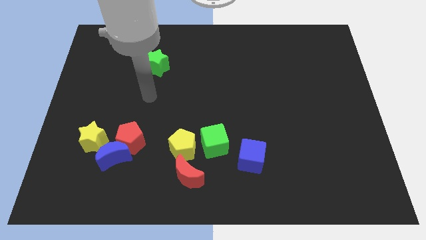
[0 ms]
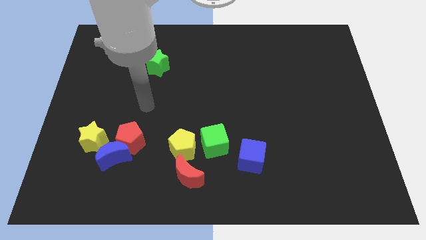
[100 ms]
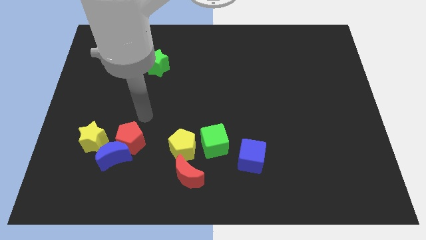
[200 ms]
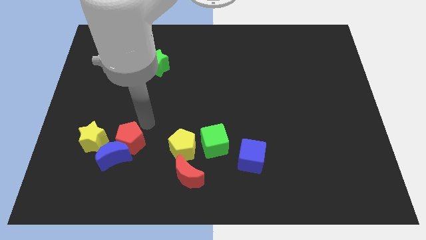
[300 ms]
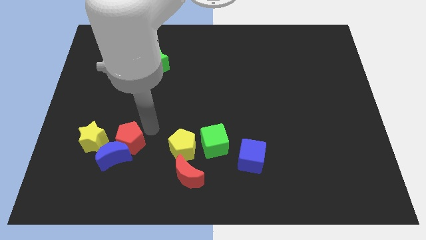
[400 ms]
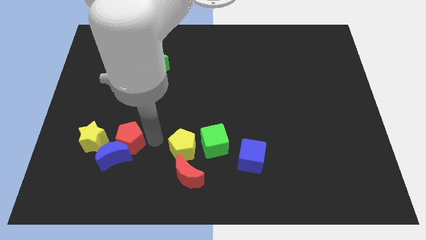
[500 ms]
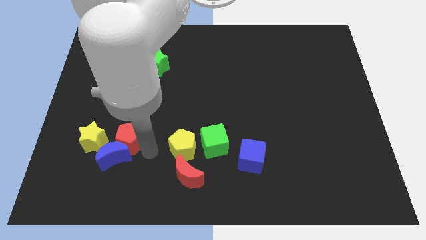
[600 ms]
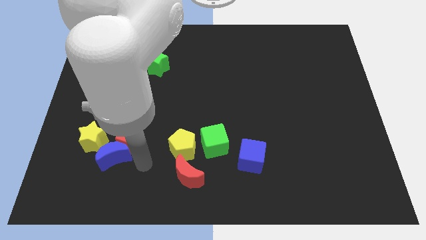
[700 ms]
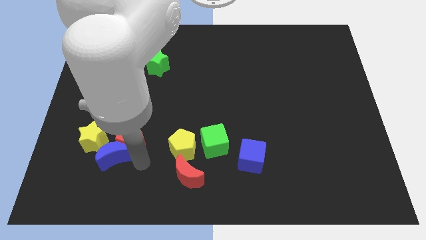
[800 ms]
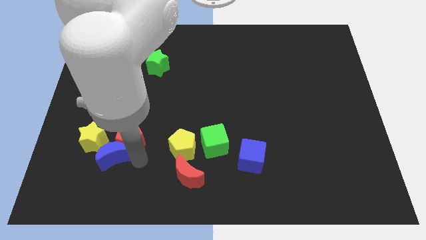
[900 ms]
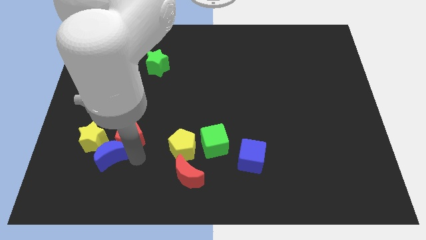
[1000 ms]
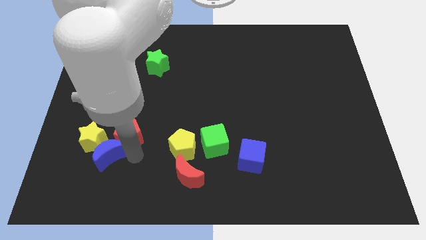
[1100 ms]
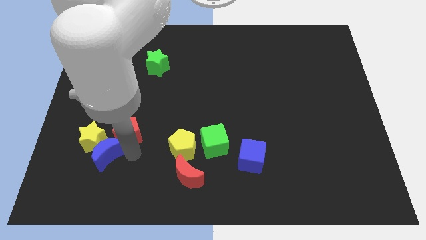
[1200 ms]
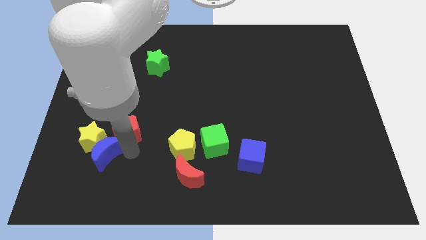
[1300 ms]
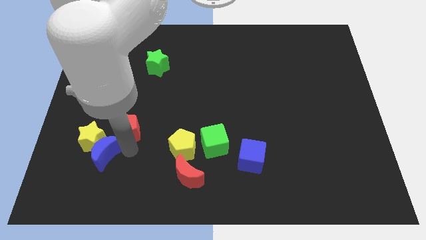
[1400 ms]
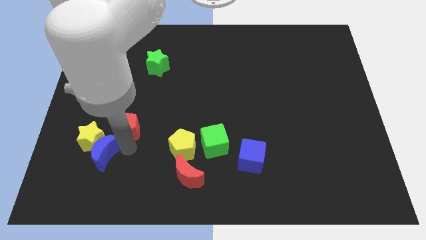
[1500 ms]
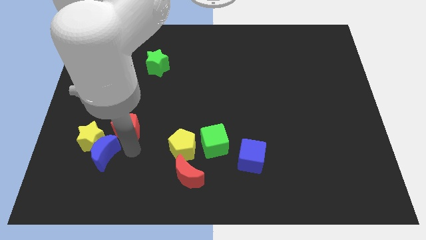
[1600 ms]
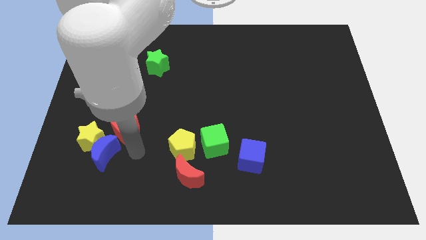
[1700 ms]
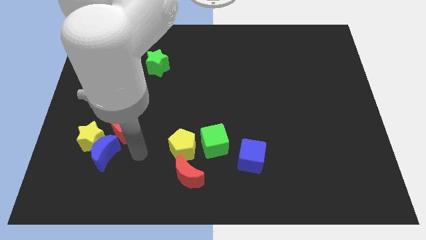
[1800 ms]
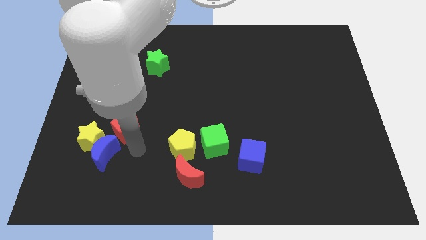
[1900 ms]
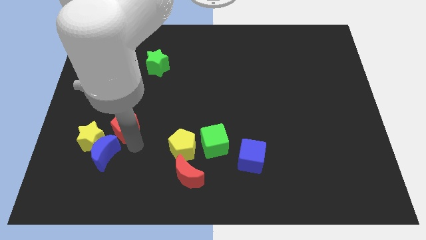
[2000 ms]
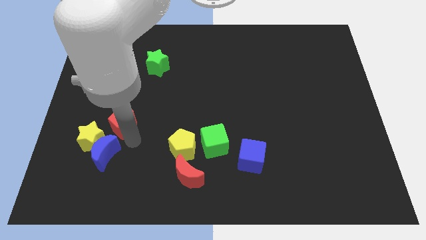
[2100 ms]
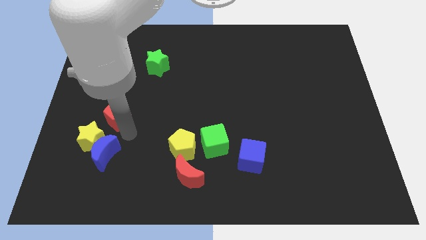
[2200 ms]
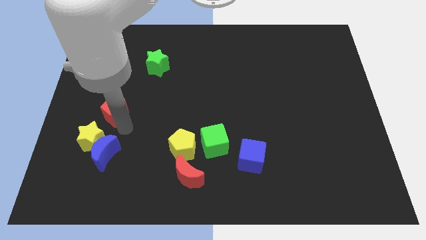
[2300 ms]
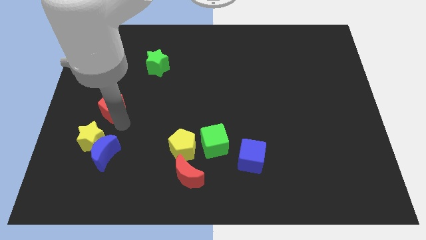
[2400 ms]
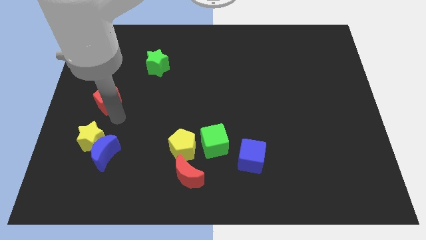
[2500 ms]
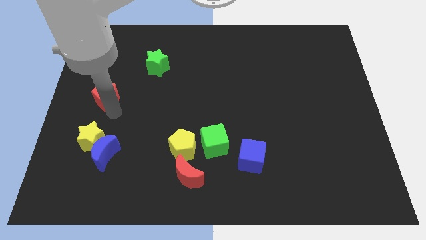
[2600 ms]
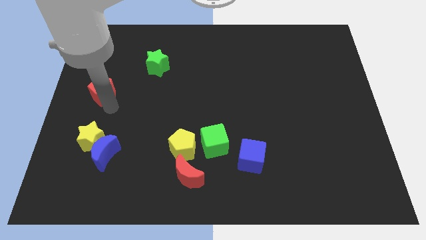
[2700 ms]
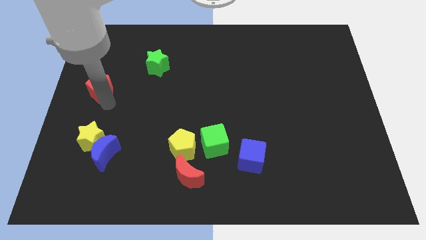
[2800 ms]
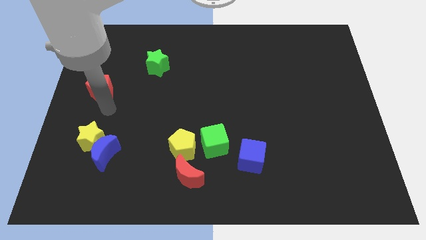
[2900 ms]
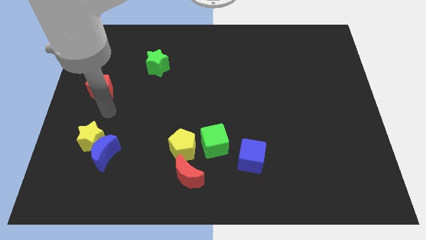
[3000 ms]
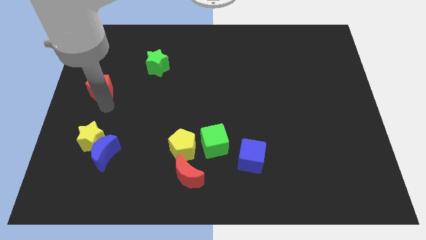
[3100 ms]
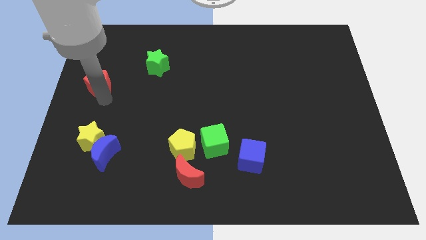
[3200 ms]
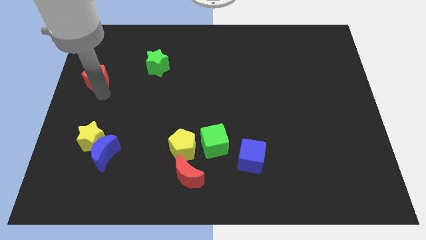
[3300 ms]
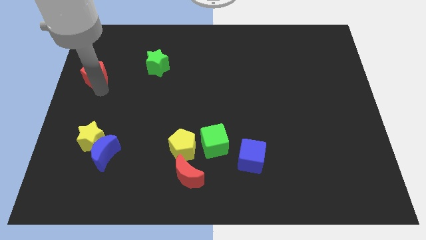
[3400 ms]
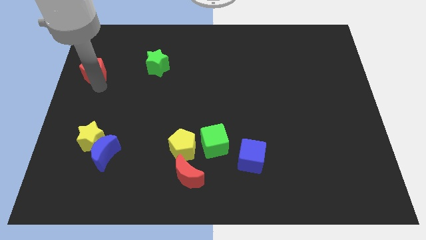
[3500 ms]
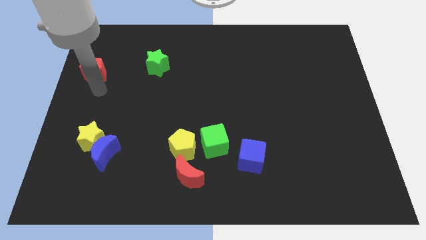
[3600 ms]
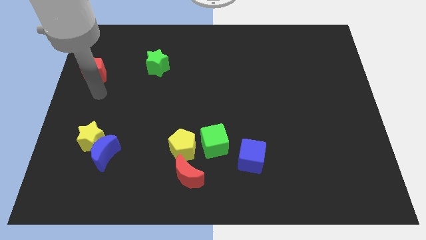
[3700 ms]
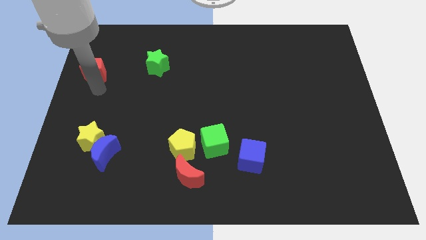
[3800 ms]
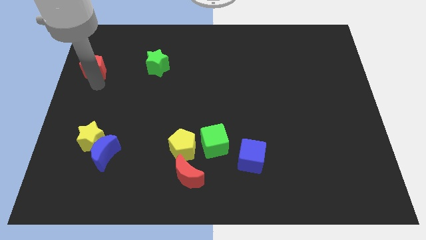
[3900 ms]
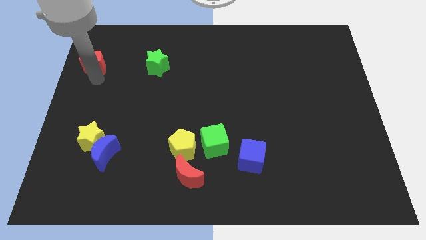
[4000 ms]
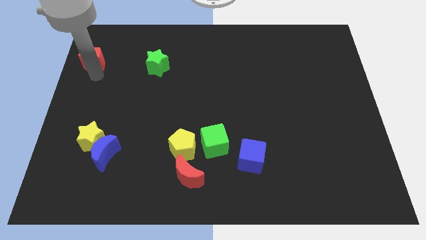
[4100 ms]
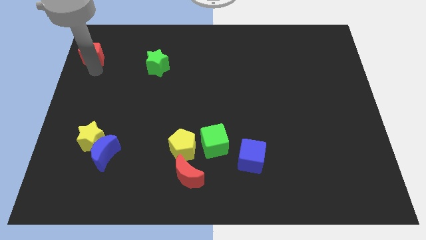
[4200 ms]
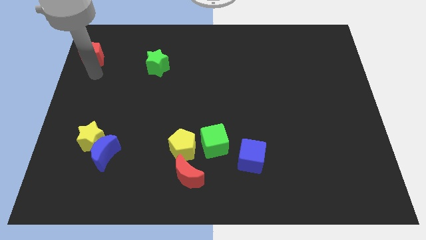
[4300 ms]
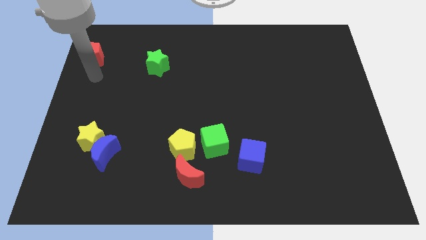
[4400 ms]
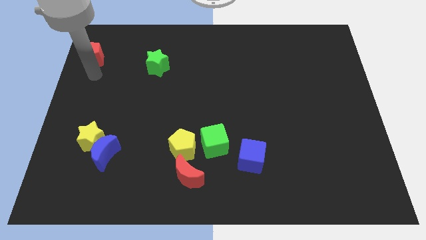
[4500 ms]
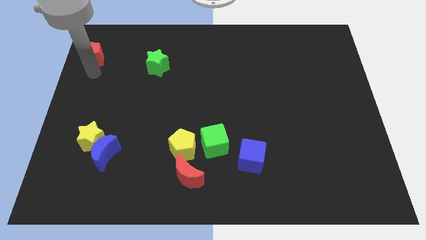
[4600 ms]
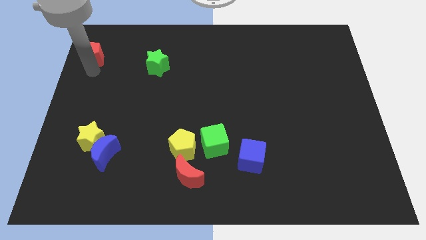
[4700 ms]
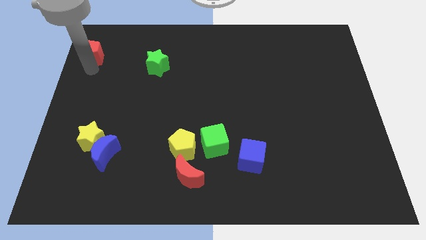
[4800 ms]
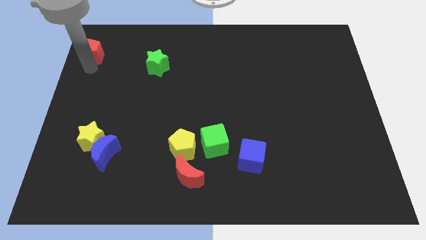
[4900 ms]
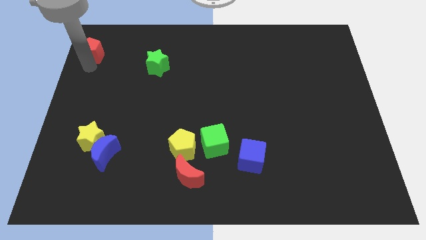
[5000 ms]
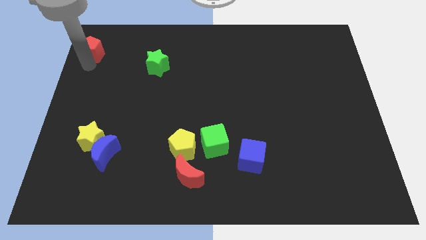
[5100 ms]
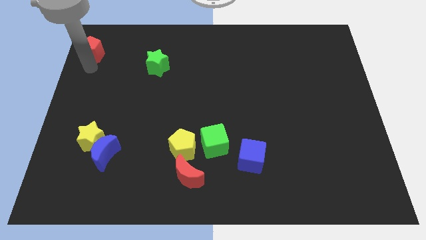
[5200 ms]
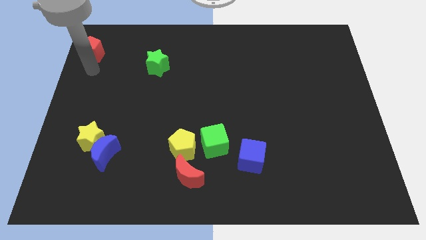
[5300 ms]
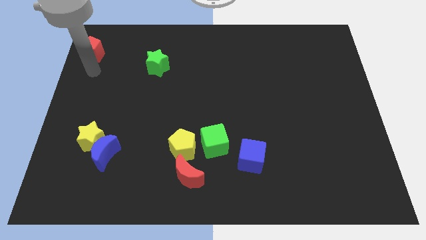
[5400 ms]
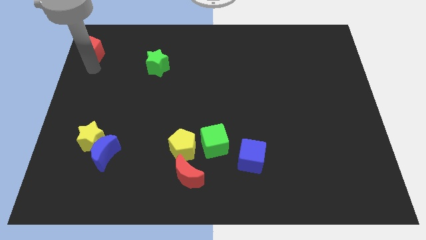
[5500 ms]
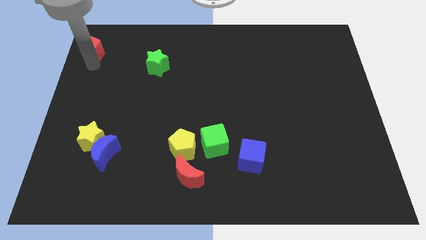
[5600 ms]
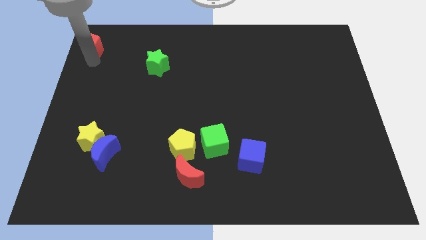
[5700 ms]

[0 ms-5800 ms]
move the red pentagon to the top left

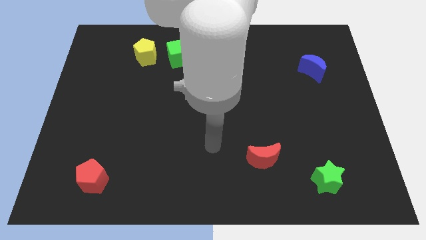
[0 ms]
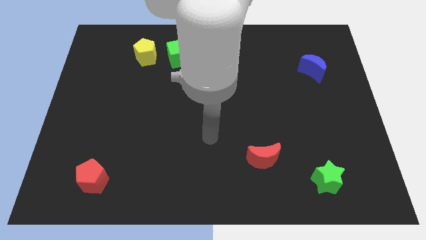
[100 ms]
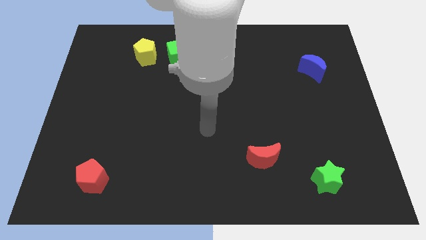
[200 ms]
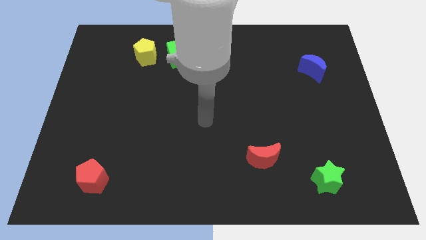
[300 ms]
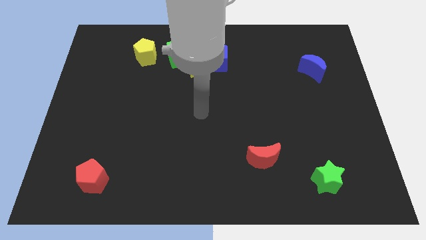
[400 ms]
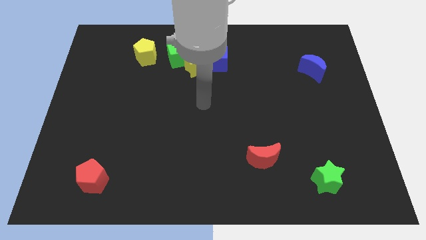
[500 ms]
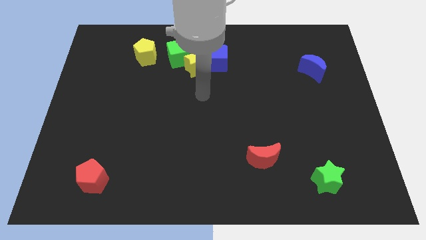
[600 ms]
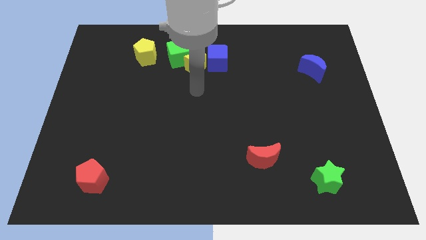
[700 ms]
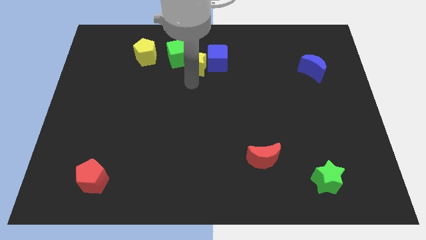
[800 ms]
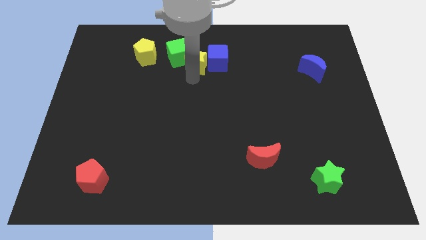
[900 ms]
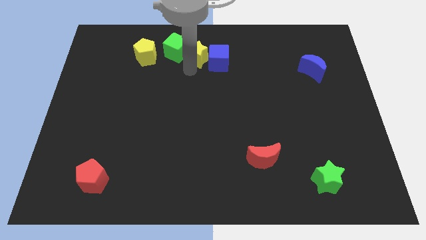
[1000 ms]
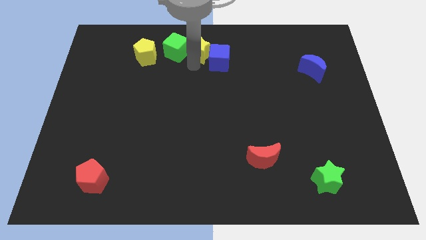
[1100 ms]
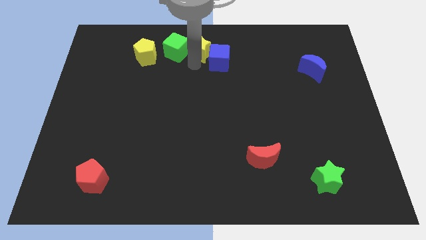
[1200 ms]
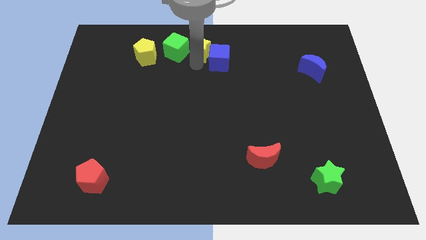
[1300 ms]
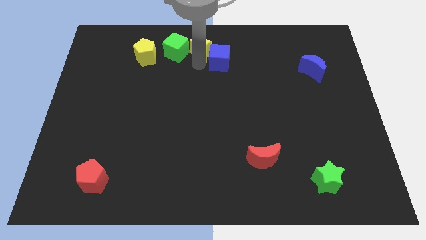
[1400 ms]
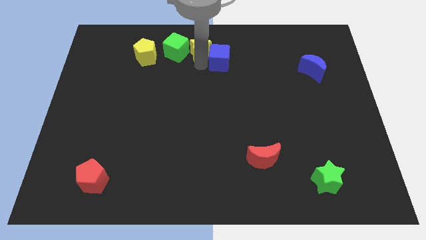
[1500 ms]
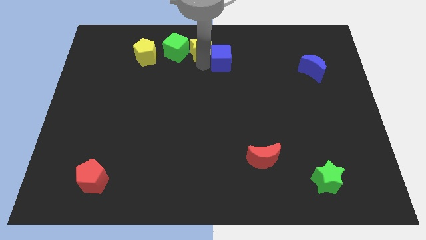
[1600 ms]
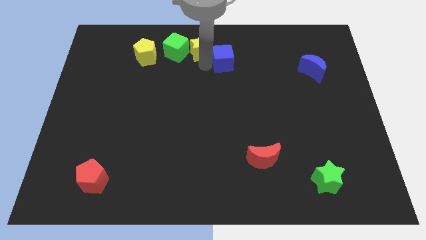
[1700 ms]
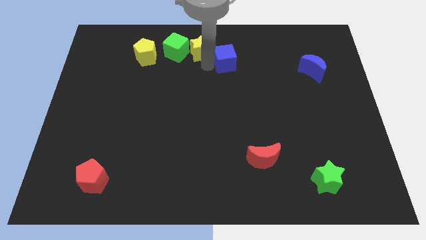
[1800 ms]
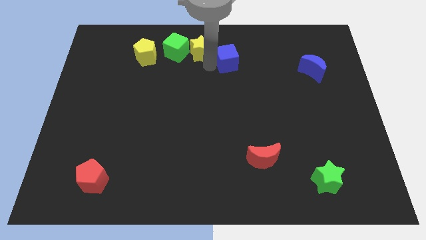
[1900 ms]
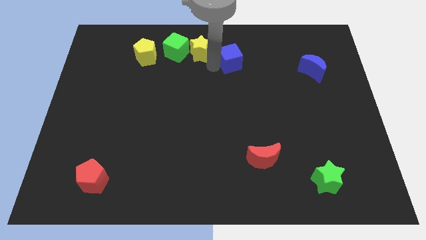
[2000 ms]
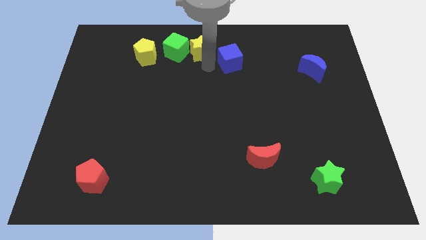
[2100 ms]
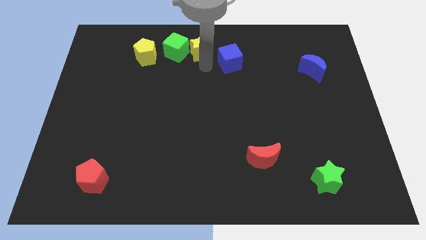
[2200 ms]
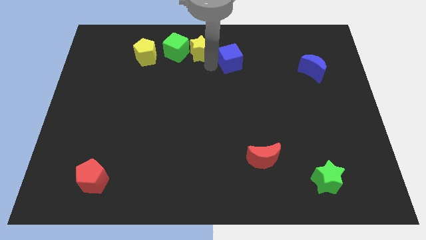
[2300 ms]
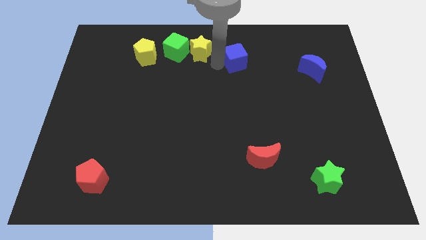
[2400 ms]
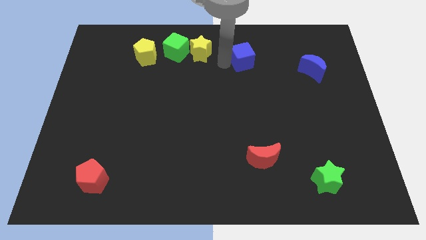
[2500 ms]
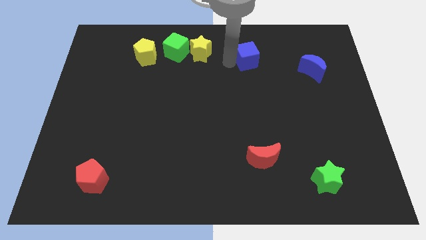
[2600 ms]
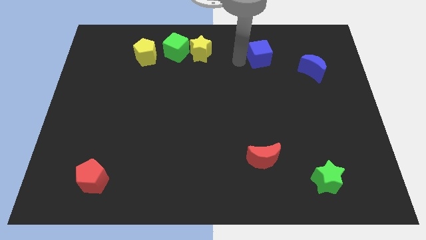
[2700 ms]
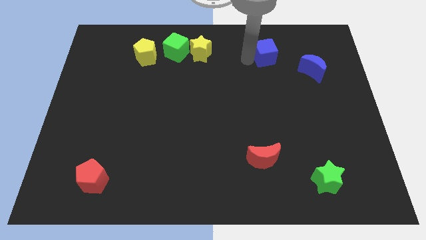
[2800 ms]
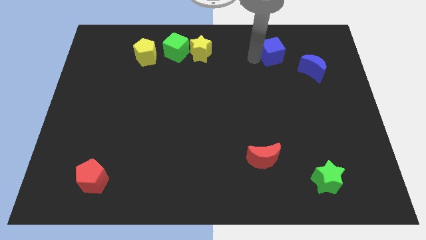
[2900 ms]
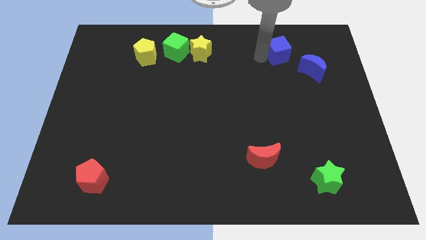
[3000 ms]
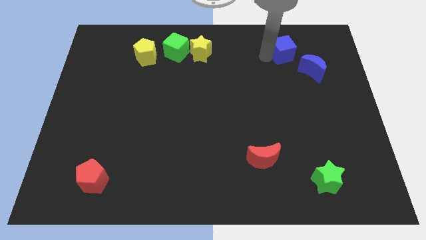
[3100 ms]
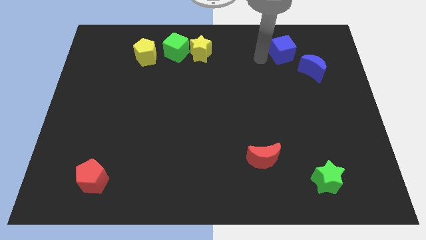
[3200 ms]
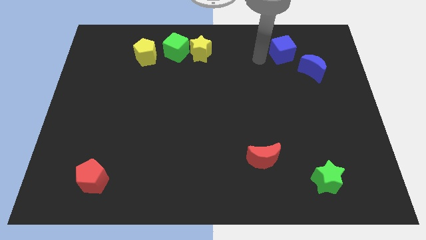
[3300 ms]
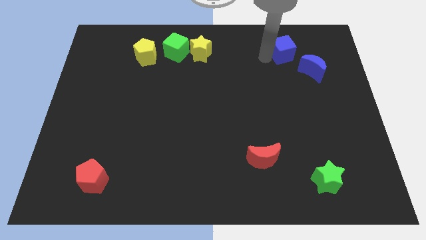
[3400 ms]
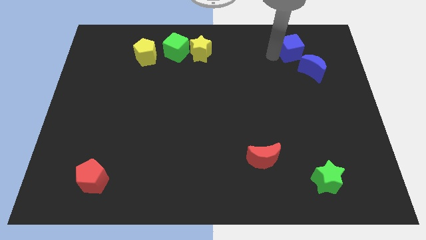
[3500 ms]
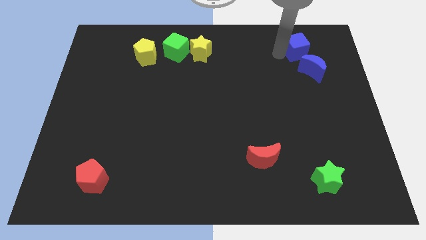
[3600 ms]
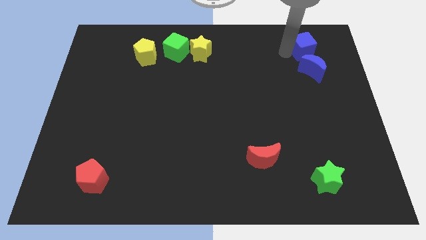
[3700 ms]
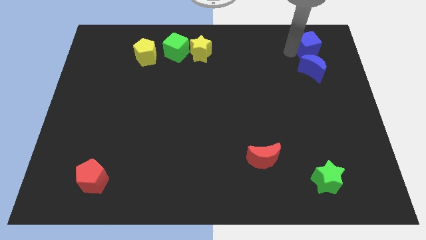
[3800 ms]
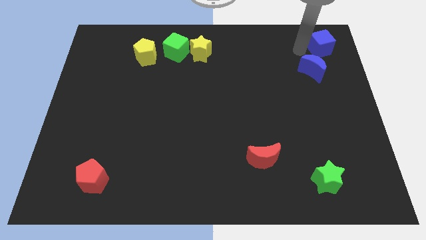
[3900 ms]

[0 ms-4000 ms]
put the blue cube to the top right of the board
